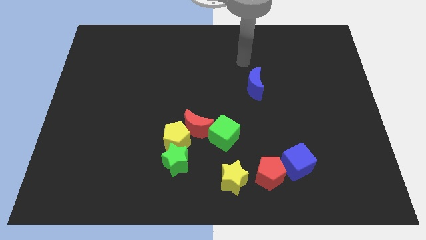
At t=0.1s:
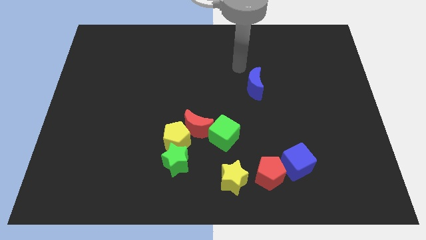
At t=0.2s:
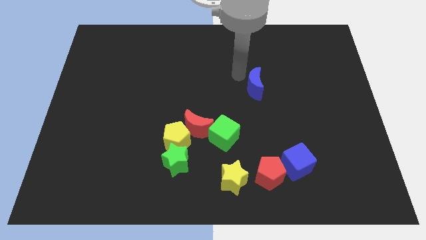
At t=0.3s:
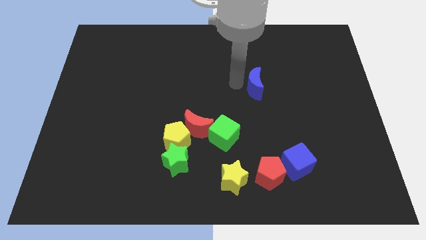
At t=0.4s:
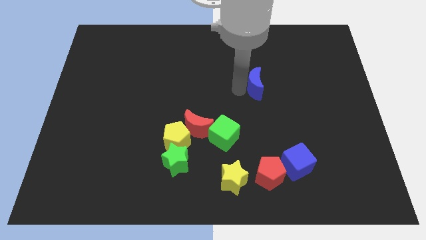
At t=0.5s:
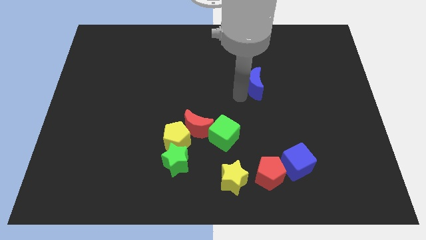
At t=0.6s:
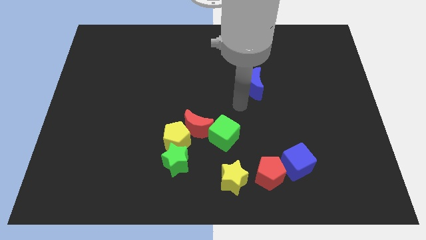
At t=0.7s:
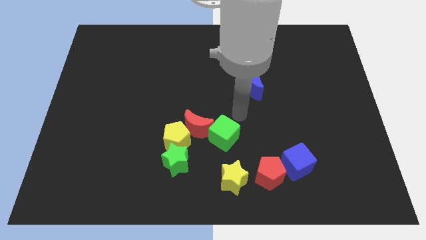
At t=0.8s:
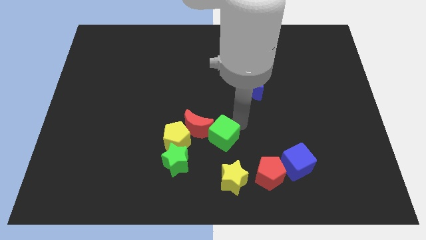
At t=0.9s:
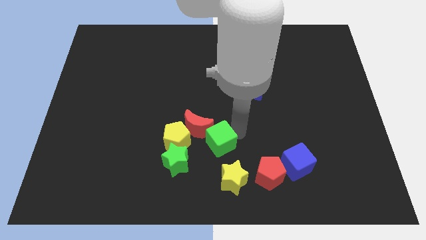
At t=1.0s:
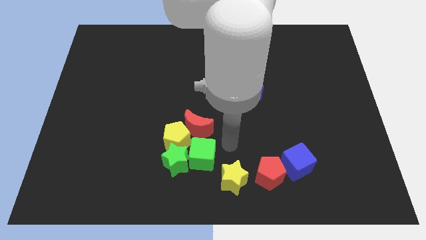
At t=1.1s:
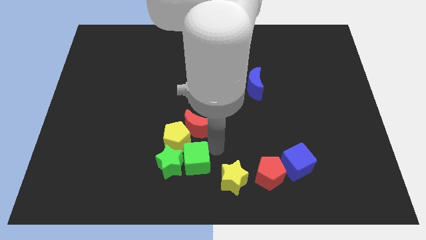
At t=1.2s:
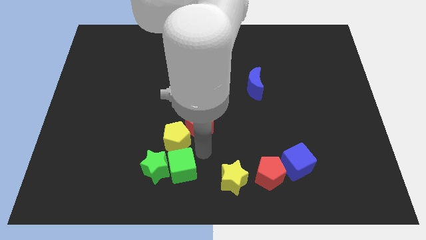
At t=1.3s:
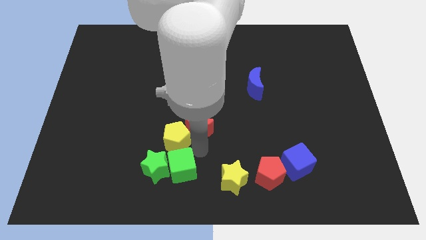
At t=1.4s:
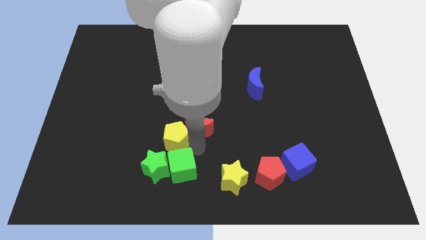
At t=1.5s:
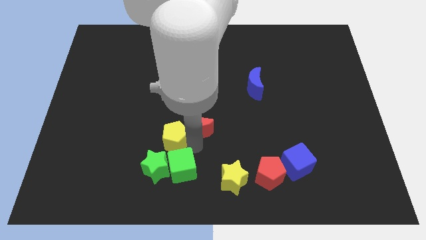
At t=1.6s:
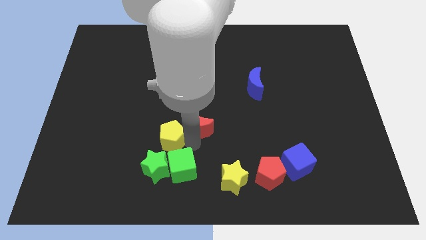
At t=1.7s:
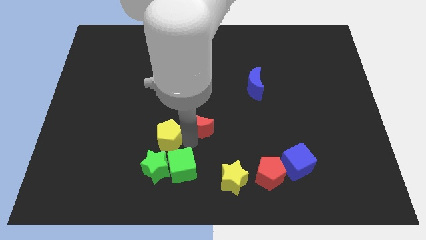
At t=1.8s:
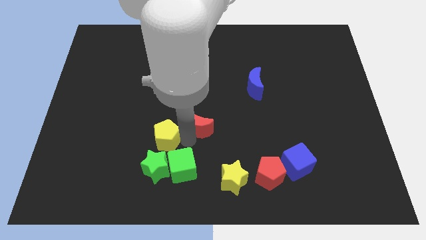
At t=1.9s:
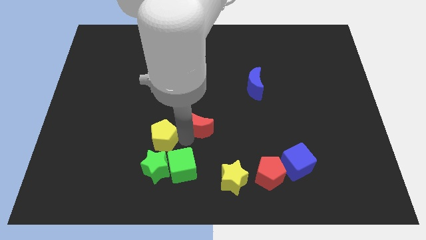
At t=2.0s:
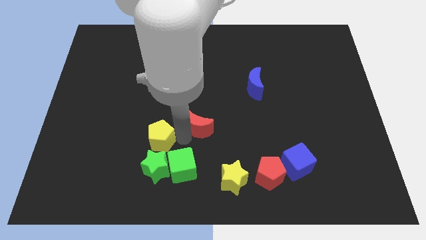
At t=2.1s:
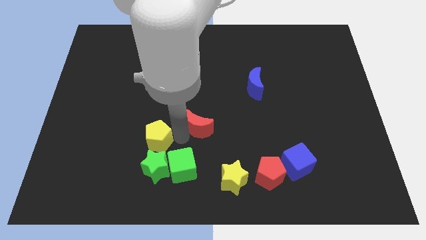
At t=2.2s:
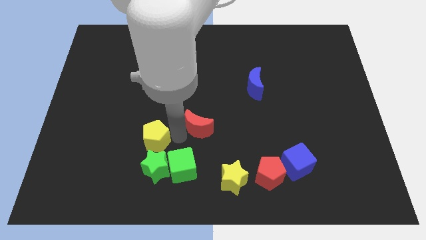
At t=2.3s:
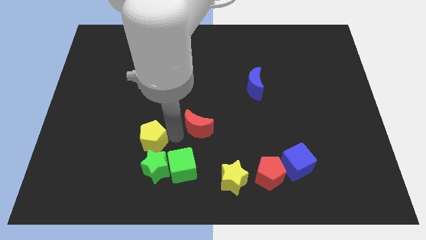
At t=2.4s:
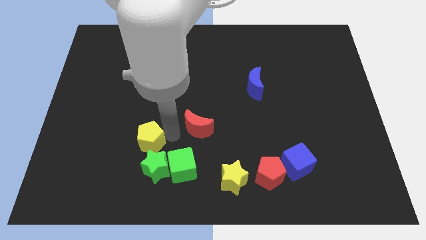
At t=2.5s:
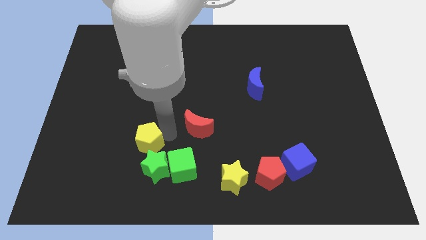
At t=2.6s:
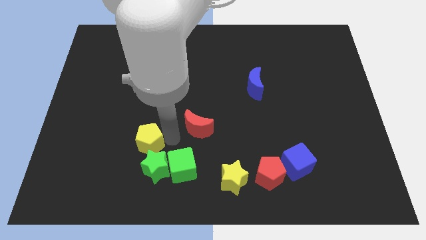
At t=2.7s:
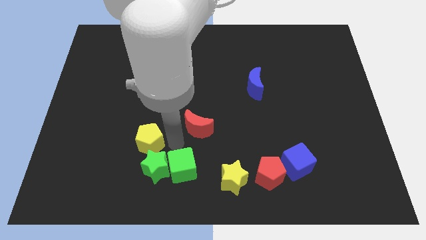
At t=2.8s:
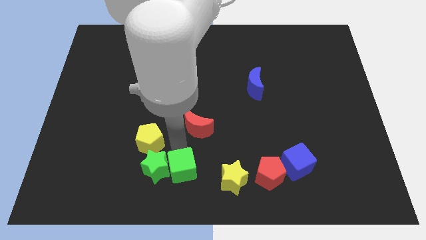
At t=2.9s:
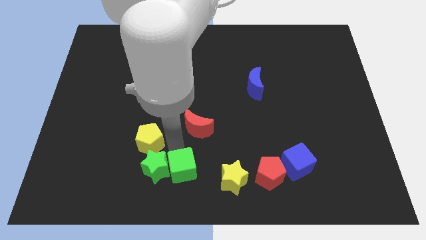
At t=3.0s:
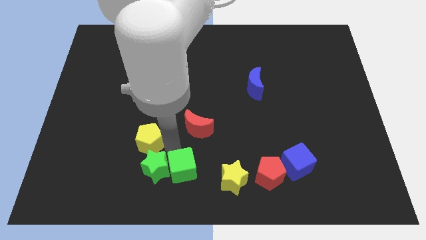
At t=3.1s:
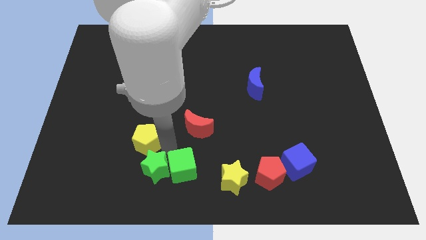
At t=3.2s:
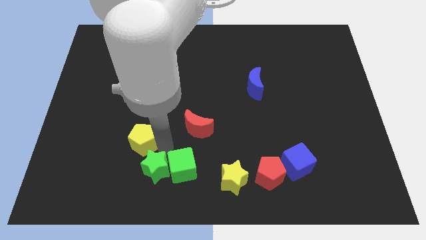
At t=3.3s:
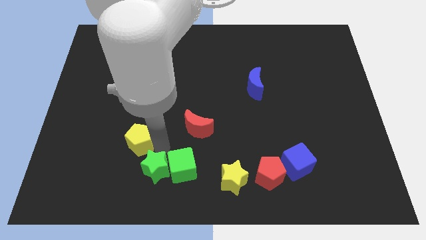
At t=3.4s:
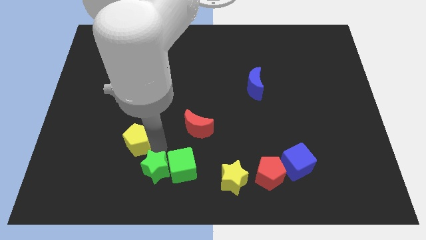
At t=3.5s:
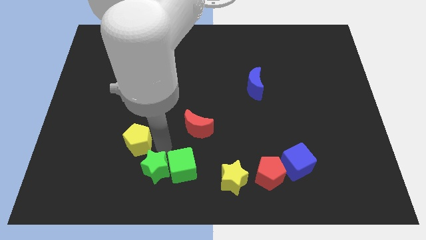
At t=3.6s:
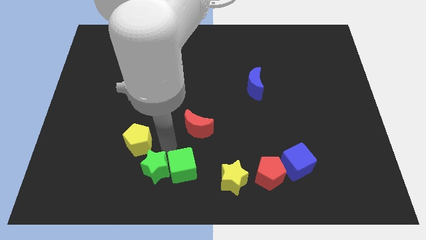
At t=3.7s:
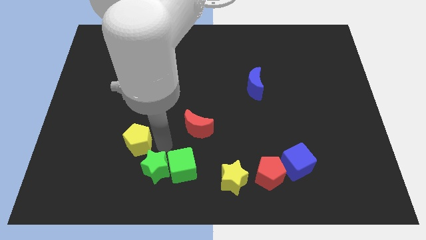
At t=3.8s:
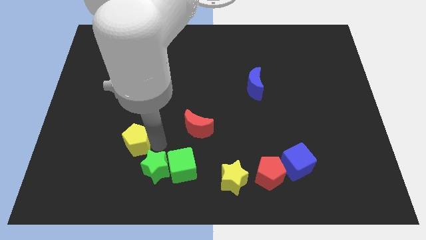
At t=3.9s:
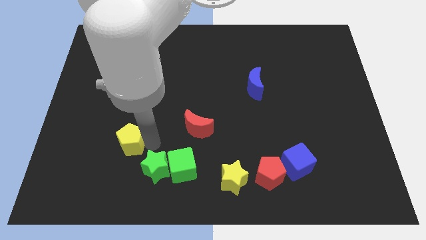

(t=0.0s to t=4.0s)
separate the yellow pentagon from the red moon and green star

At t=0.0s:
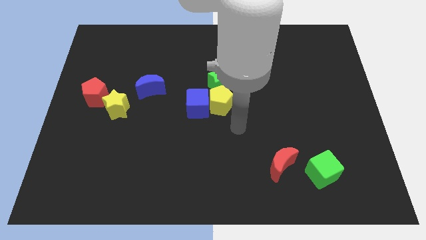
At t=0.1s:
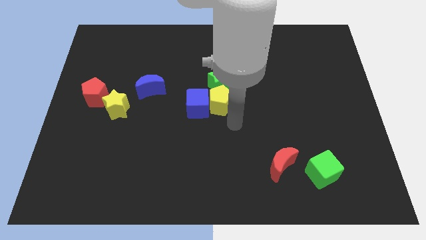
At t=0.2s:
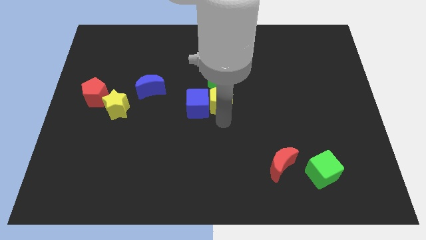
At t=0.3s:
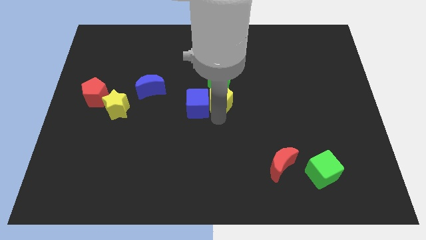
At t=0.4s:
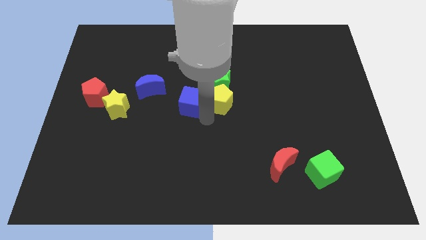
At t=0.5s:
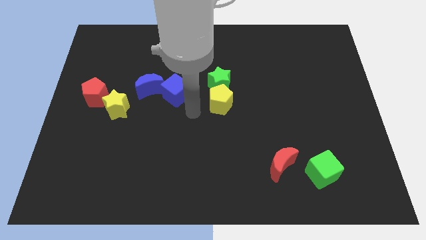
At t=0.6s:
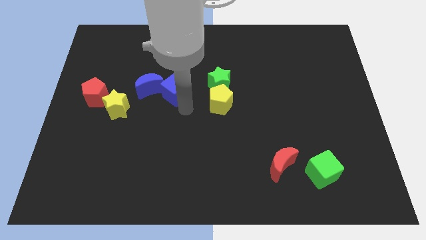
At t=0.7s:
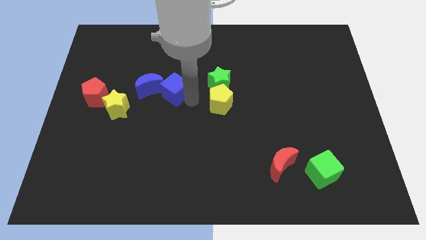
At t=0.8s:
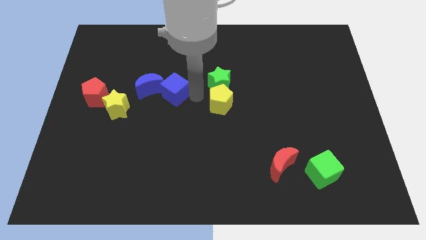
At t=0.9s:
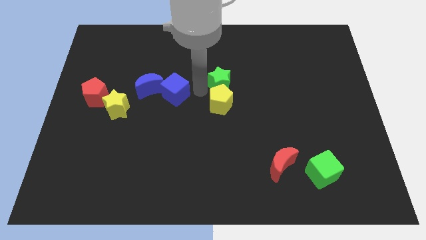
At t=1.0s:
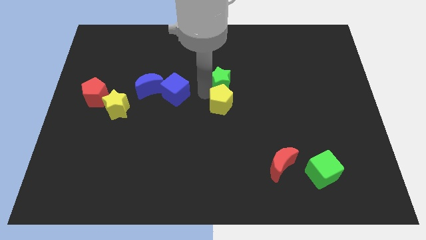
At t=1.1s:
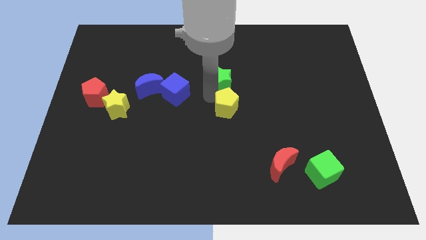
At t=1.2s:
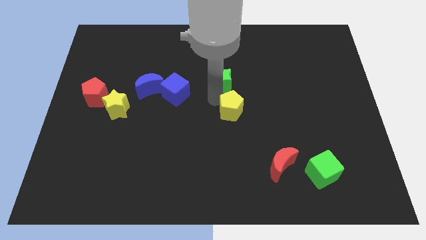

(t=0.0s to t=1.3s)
pull the yellow pentagon apart from the blue cube and green star

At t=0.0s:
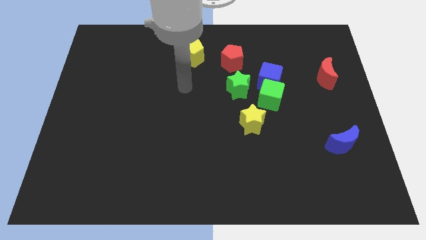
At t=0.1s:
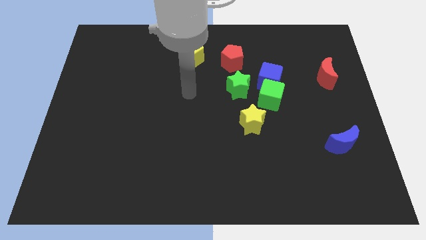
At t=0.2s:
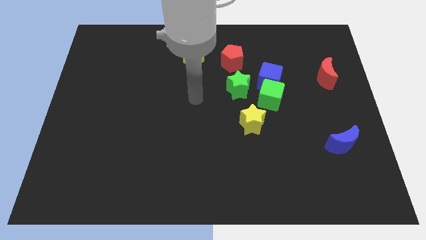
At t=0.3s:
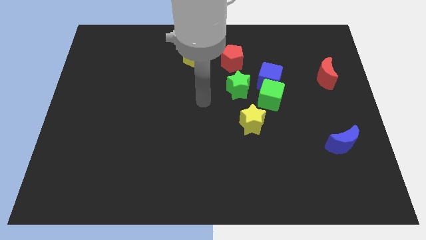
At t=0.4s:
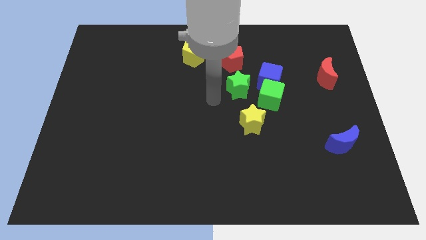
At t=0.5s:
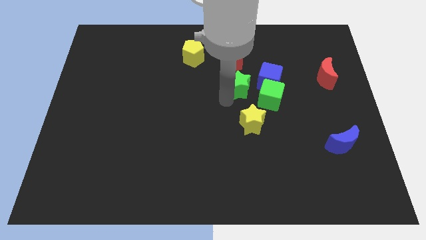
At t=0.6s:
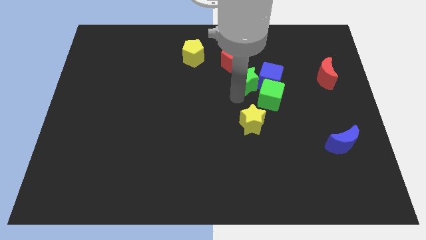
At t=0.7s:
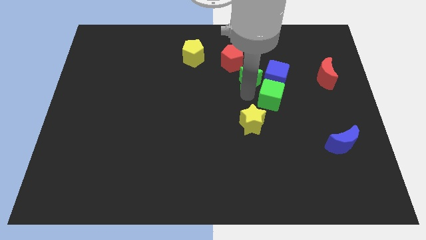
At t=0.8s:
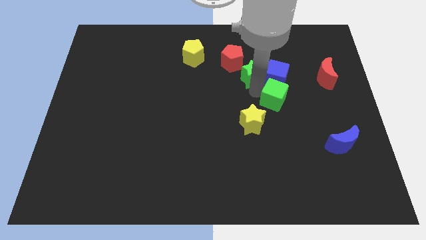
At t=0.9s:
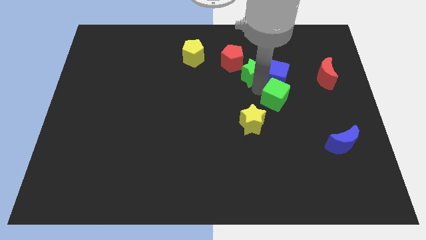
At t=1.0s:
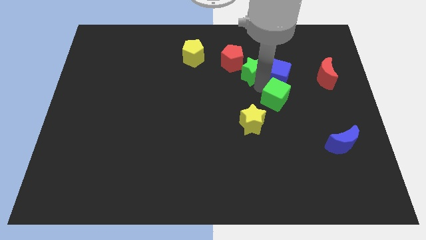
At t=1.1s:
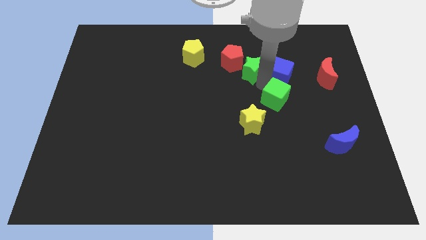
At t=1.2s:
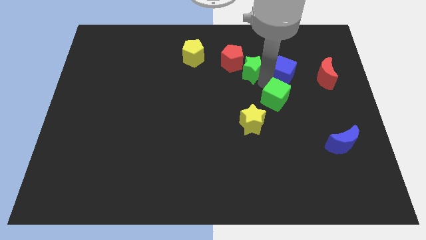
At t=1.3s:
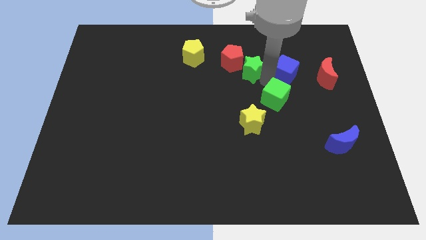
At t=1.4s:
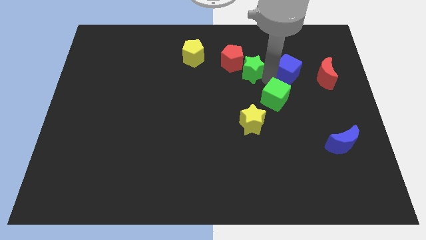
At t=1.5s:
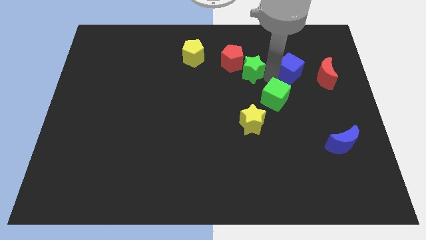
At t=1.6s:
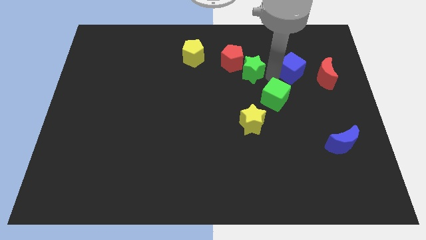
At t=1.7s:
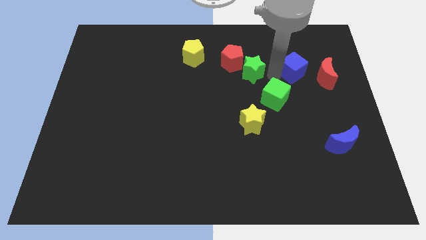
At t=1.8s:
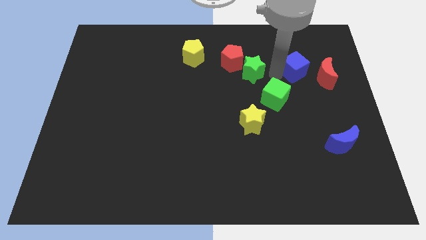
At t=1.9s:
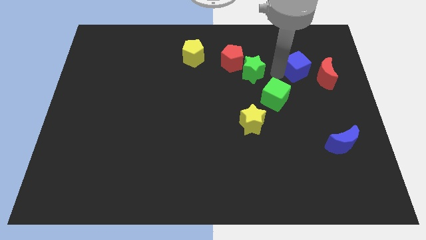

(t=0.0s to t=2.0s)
separate the blue cube from the green cube and green star

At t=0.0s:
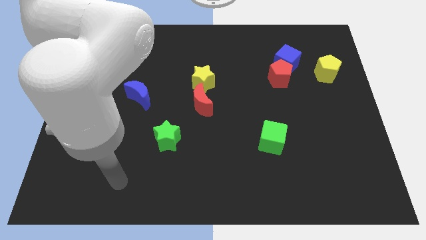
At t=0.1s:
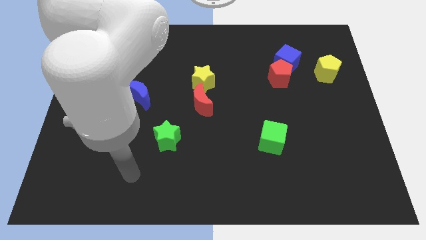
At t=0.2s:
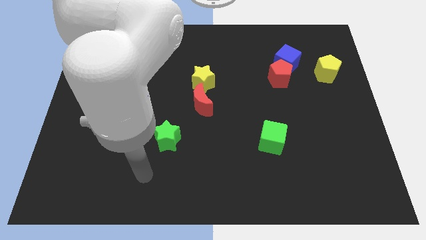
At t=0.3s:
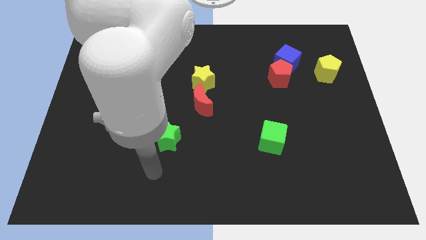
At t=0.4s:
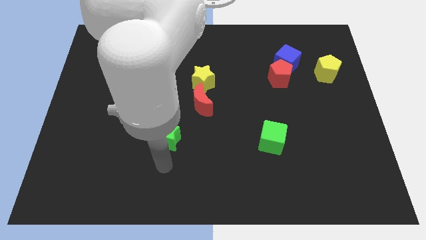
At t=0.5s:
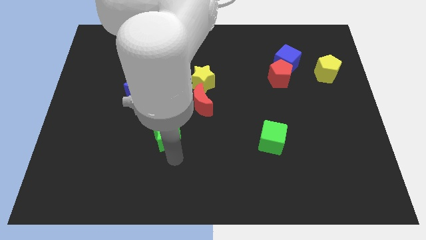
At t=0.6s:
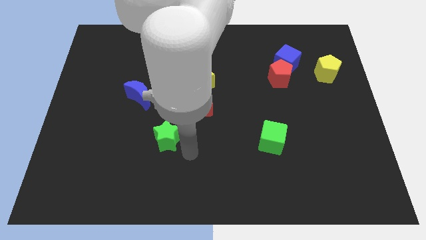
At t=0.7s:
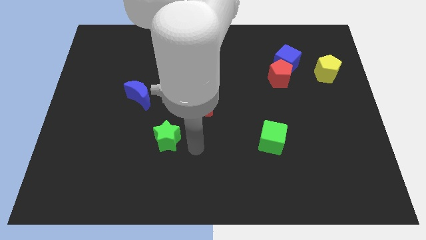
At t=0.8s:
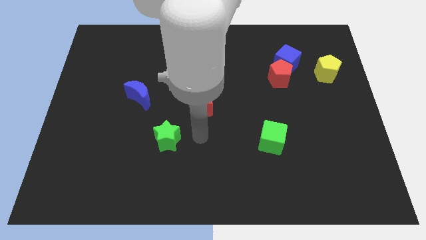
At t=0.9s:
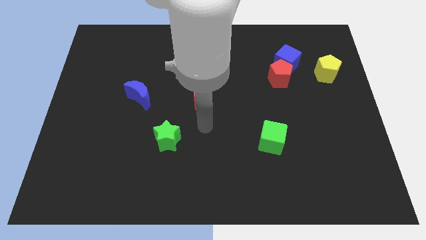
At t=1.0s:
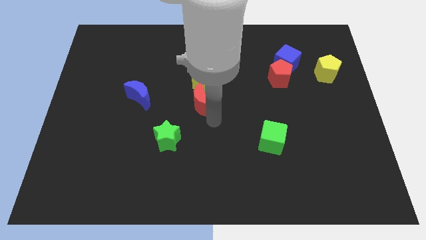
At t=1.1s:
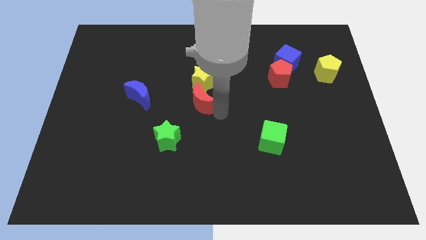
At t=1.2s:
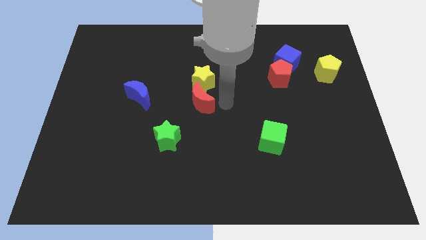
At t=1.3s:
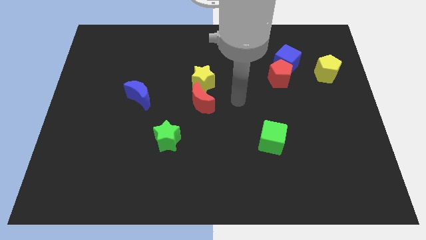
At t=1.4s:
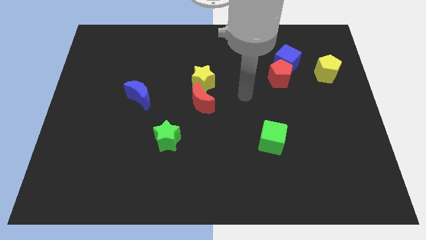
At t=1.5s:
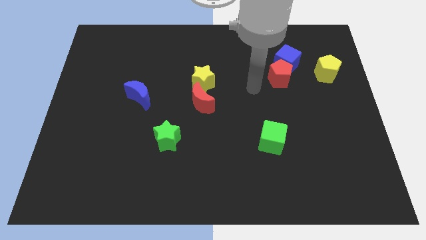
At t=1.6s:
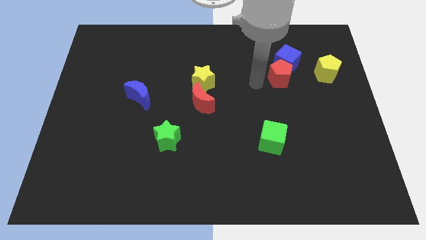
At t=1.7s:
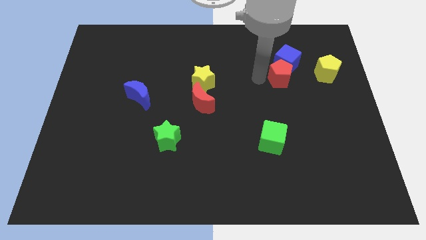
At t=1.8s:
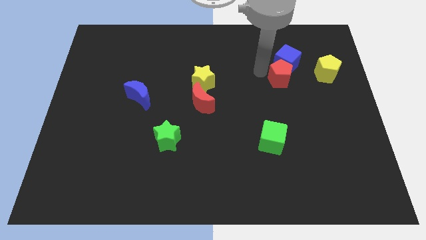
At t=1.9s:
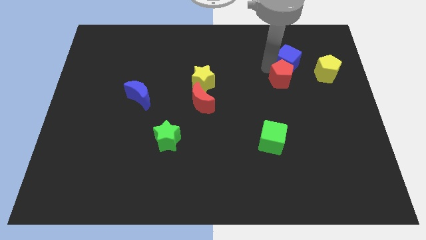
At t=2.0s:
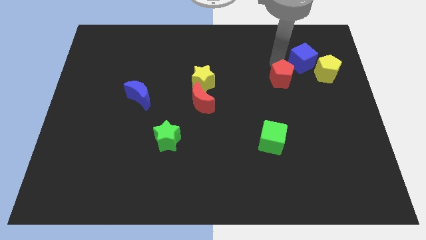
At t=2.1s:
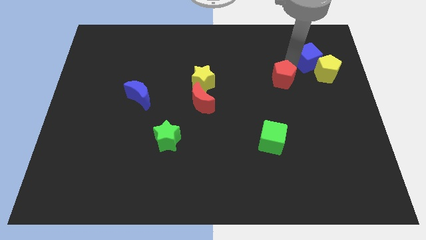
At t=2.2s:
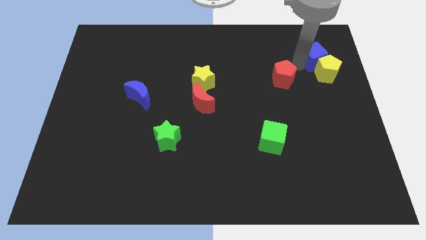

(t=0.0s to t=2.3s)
separate the red pentagon from the blue cube
